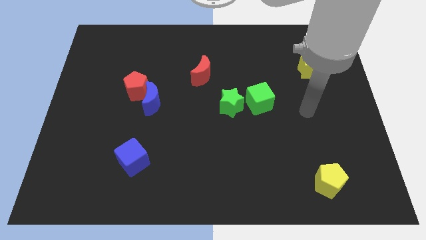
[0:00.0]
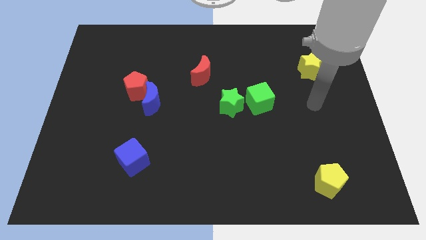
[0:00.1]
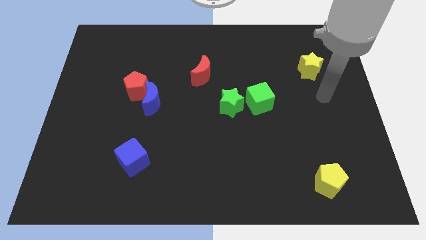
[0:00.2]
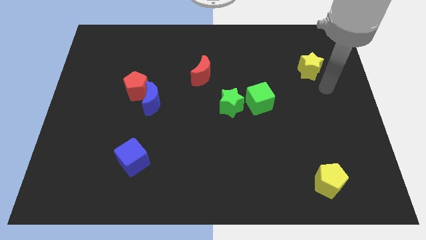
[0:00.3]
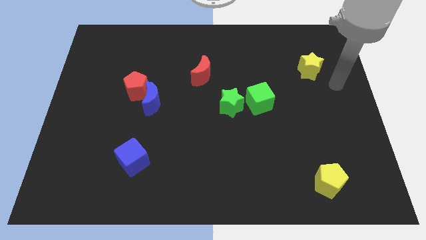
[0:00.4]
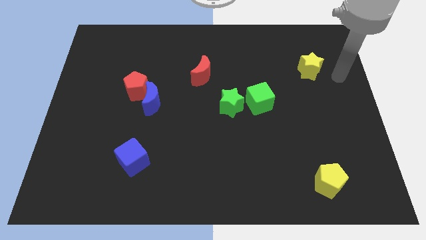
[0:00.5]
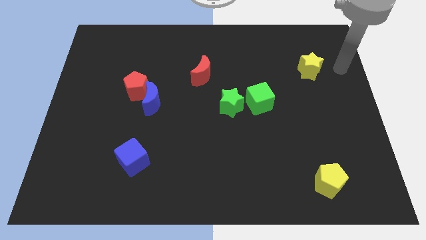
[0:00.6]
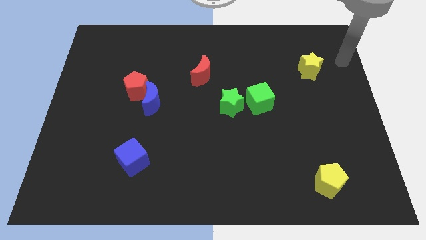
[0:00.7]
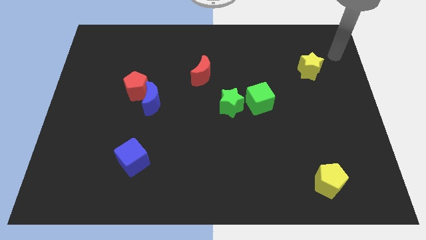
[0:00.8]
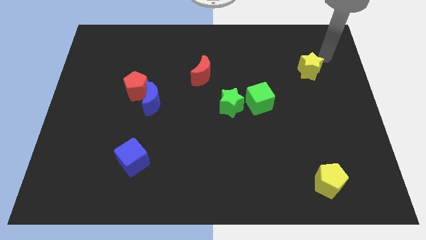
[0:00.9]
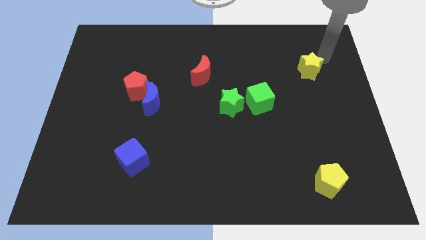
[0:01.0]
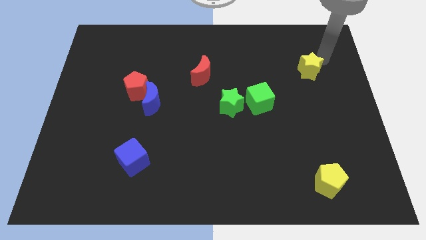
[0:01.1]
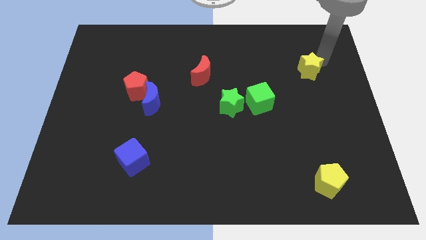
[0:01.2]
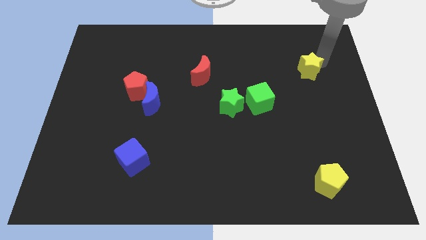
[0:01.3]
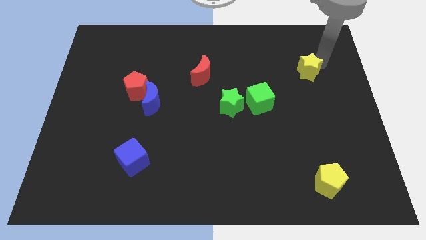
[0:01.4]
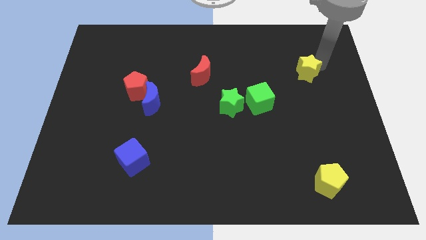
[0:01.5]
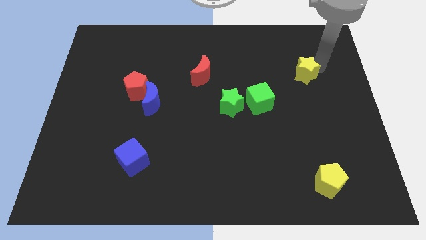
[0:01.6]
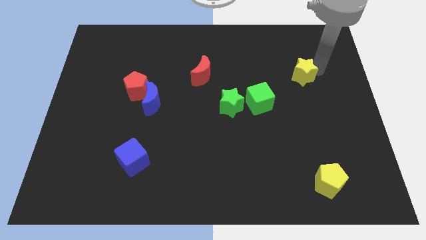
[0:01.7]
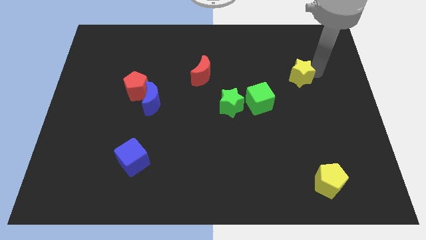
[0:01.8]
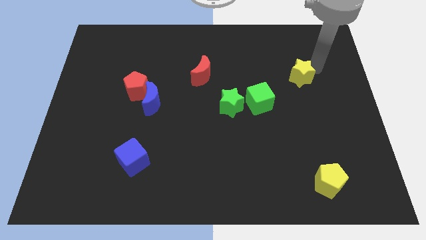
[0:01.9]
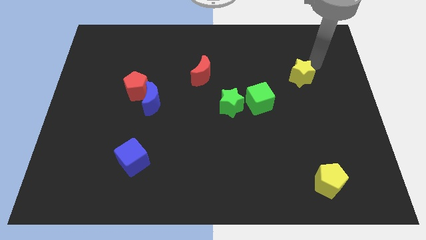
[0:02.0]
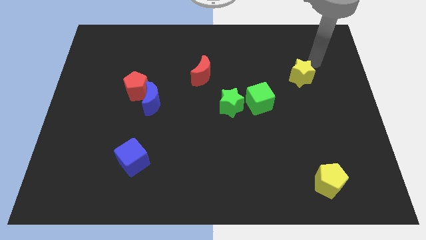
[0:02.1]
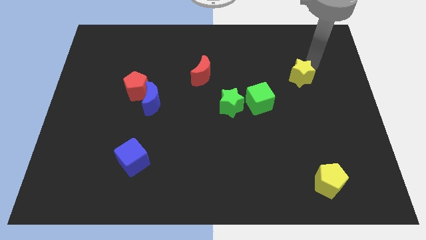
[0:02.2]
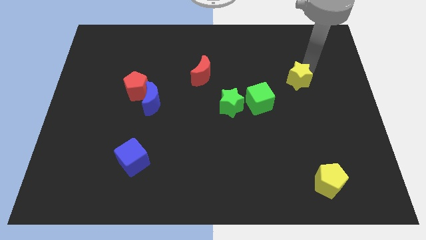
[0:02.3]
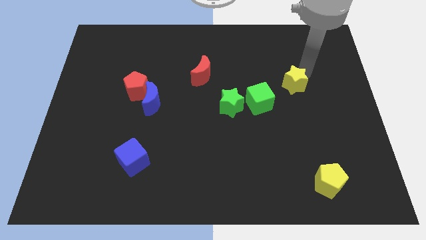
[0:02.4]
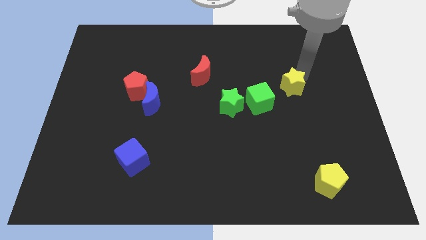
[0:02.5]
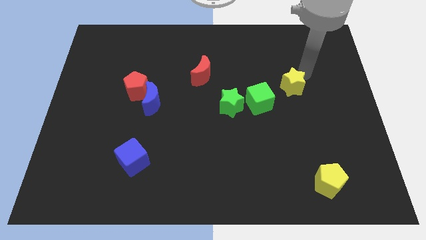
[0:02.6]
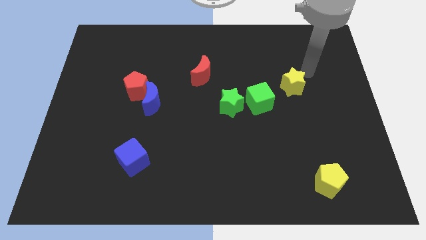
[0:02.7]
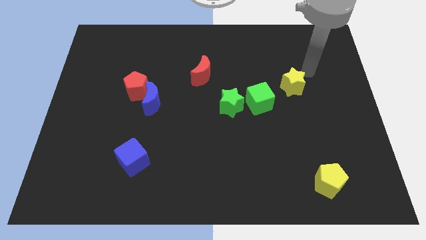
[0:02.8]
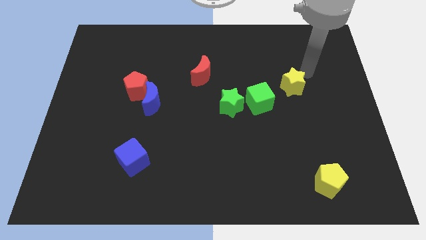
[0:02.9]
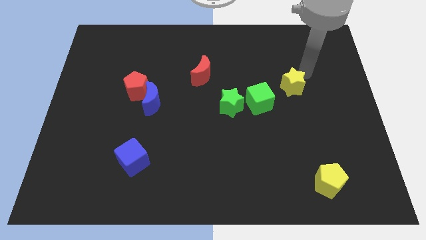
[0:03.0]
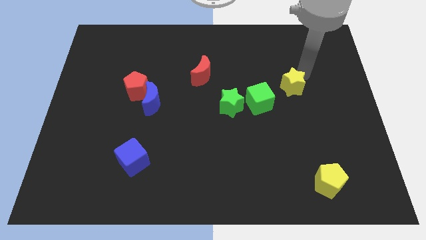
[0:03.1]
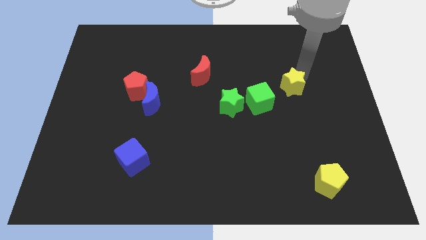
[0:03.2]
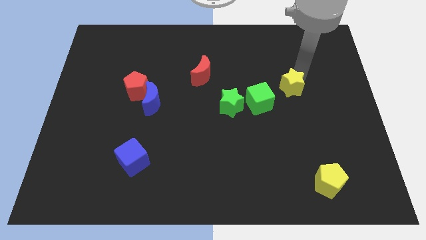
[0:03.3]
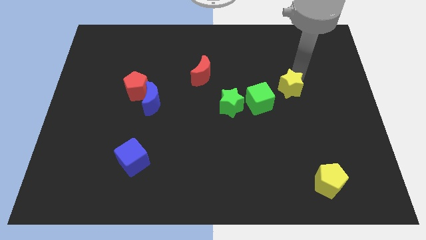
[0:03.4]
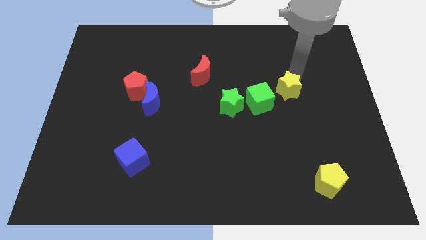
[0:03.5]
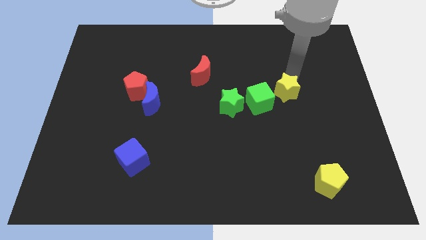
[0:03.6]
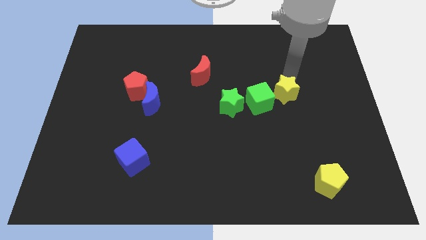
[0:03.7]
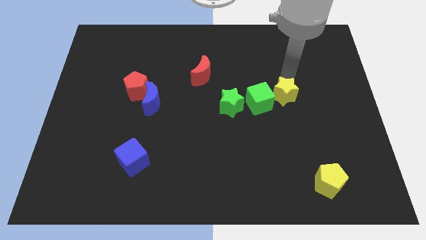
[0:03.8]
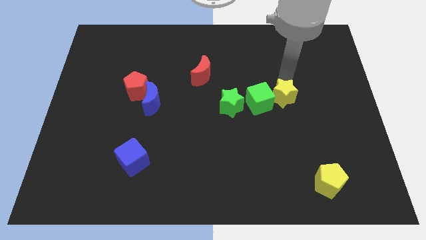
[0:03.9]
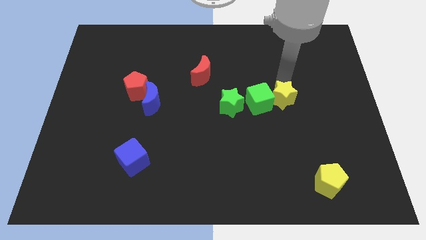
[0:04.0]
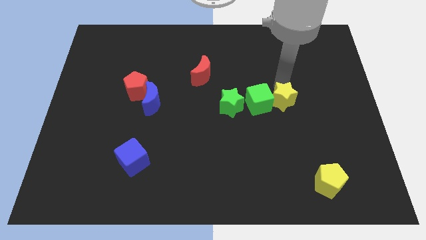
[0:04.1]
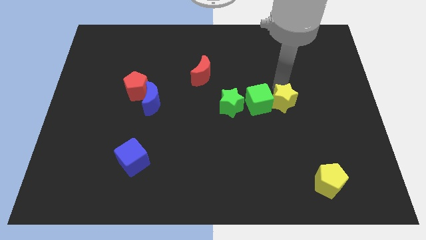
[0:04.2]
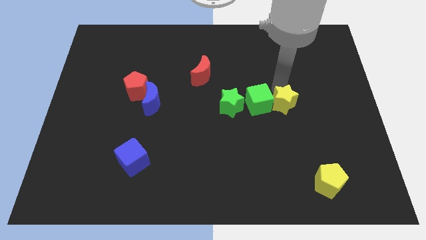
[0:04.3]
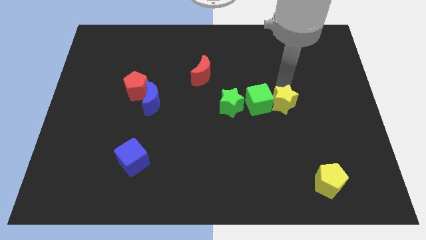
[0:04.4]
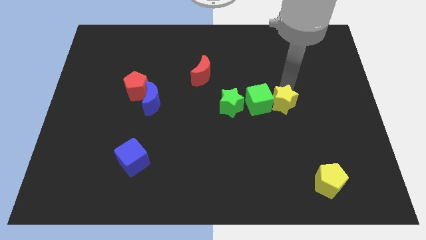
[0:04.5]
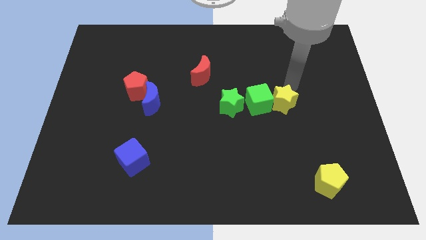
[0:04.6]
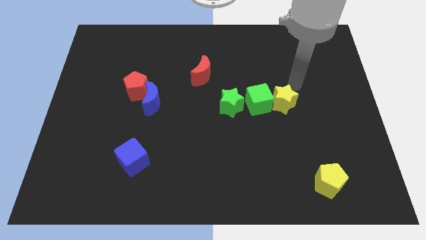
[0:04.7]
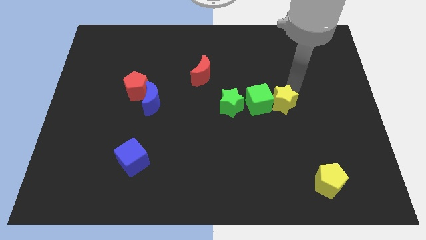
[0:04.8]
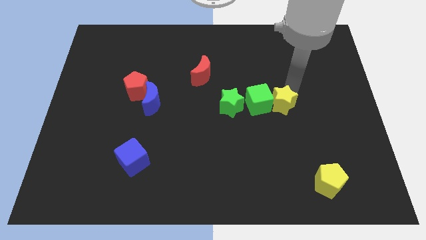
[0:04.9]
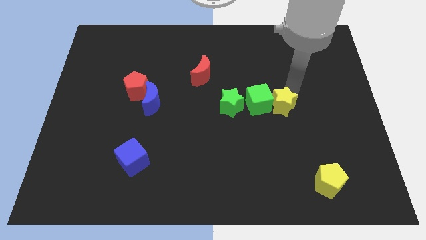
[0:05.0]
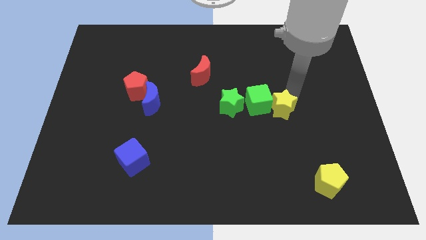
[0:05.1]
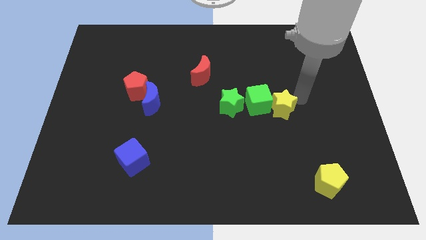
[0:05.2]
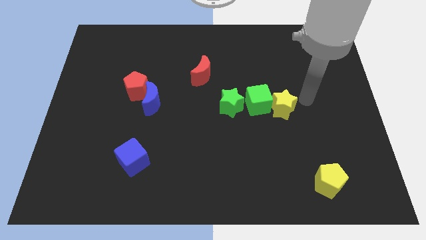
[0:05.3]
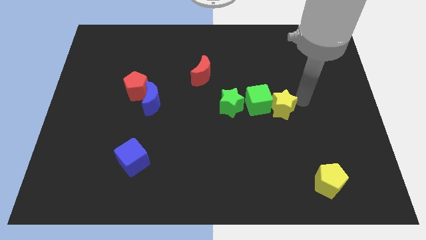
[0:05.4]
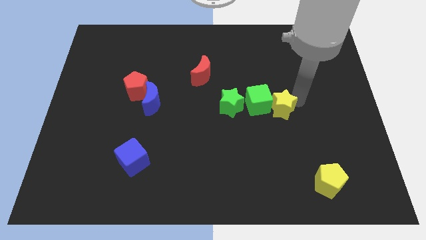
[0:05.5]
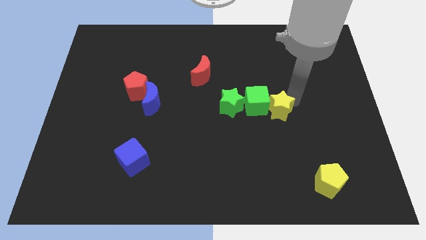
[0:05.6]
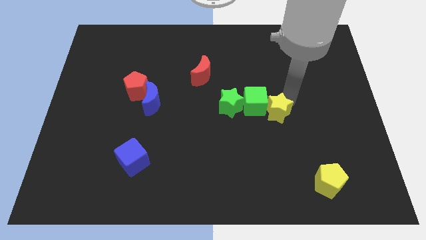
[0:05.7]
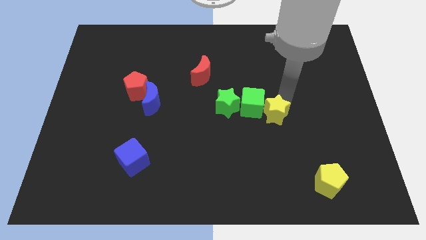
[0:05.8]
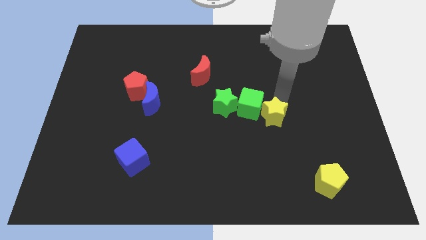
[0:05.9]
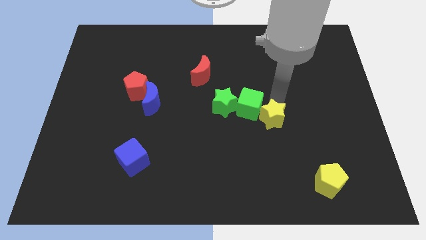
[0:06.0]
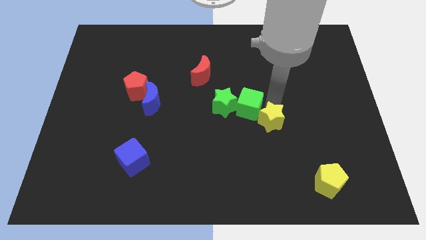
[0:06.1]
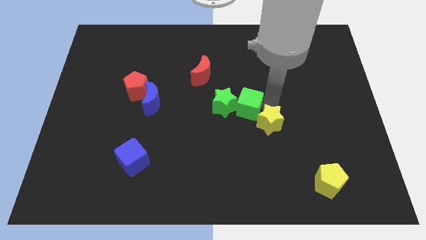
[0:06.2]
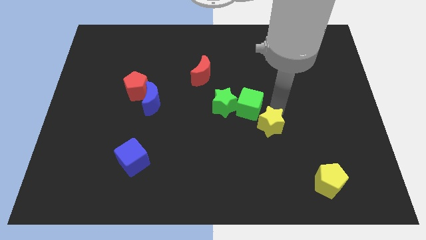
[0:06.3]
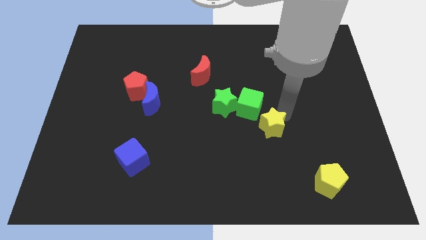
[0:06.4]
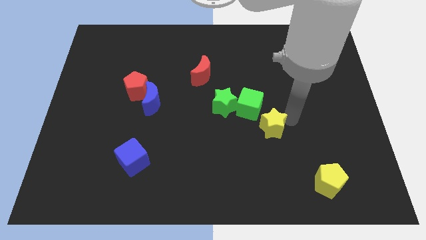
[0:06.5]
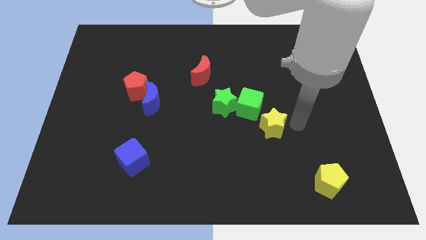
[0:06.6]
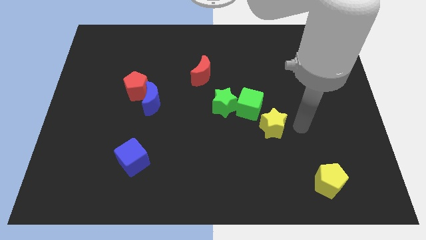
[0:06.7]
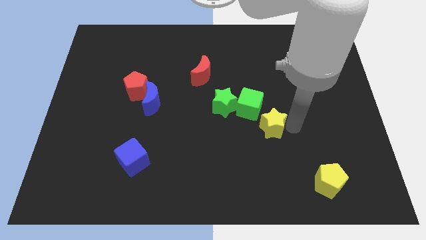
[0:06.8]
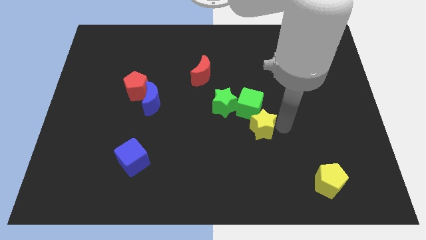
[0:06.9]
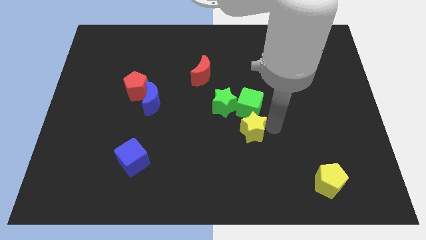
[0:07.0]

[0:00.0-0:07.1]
put the yellow star to the bottom left of the green cube
